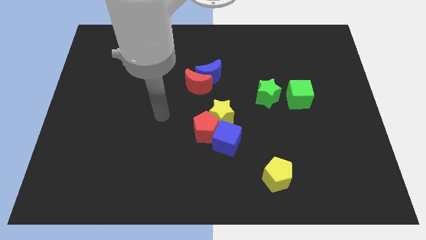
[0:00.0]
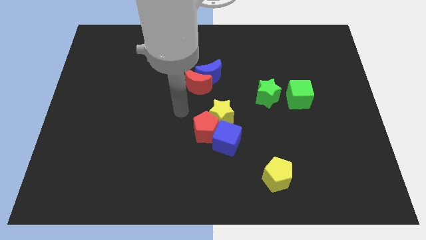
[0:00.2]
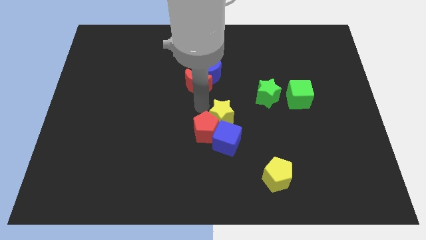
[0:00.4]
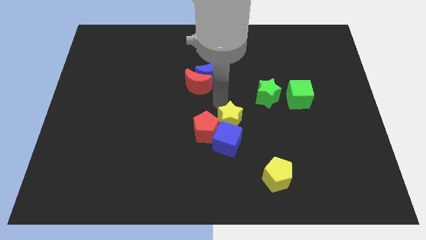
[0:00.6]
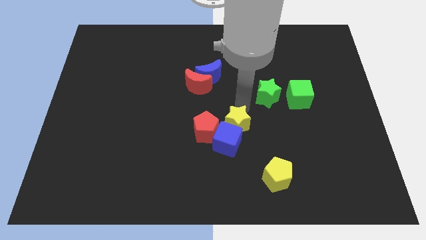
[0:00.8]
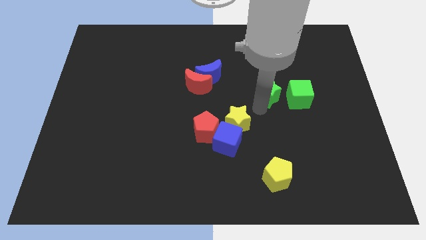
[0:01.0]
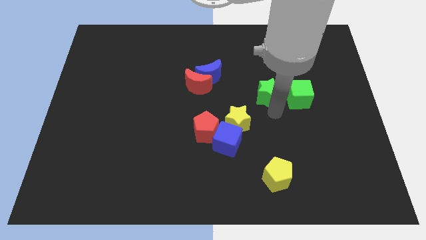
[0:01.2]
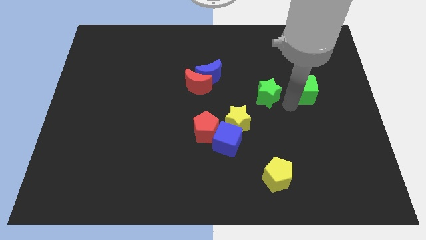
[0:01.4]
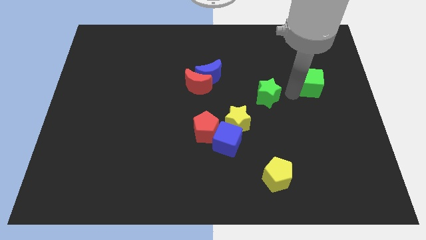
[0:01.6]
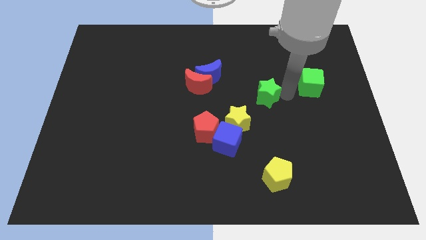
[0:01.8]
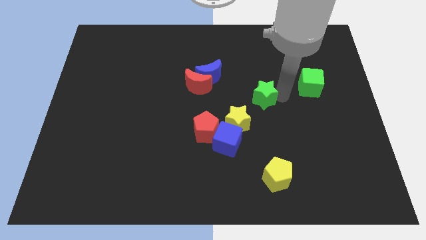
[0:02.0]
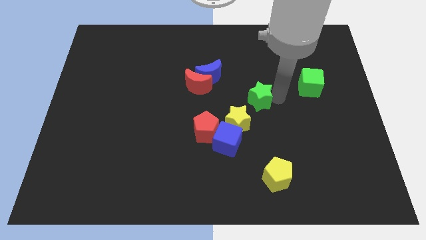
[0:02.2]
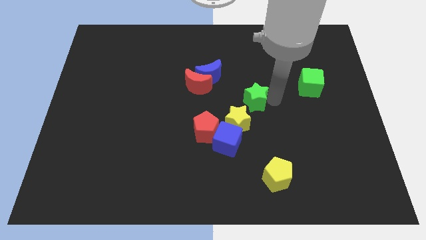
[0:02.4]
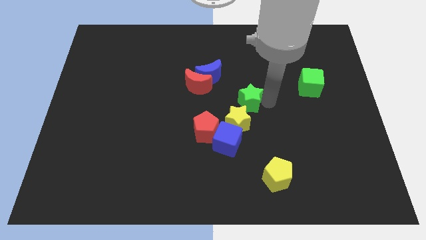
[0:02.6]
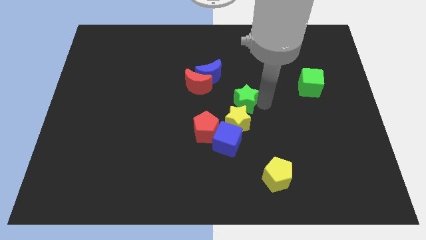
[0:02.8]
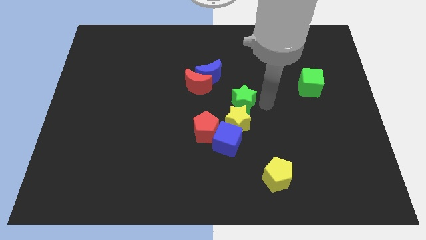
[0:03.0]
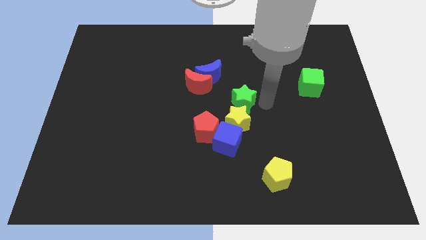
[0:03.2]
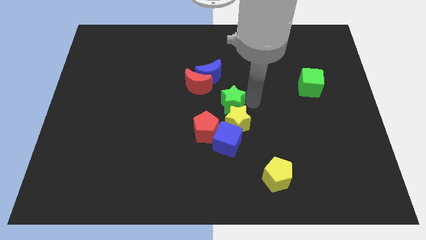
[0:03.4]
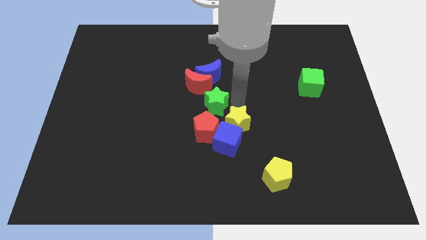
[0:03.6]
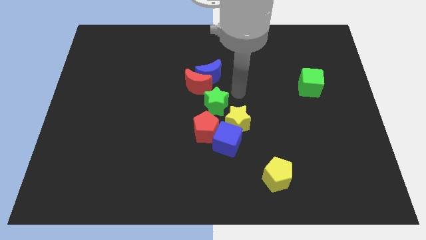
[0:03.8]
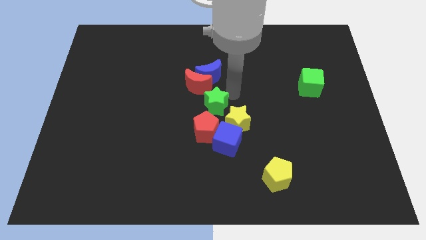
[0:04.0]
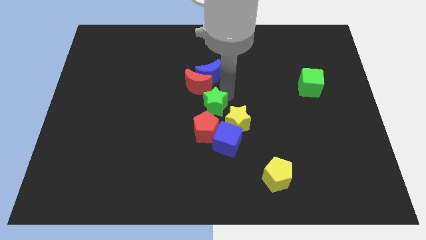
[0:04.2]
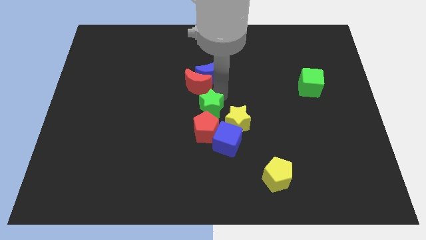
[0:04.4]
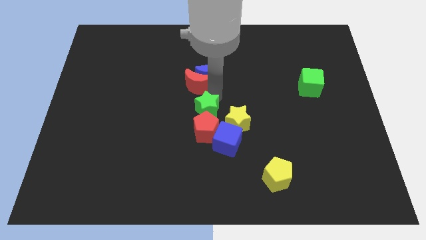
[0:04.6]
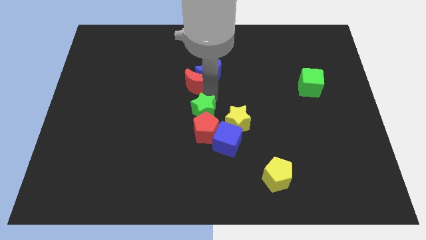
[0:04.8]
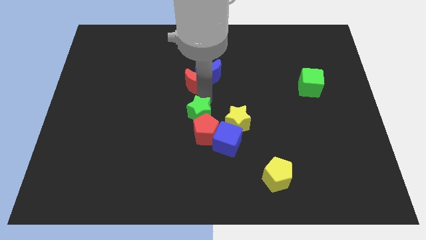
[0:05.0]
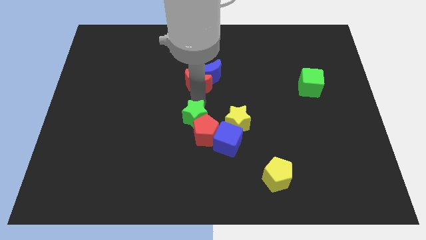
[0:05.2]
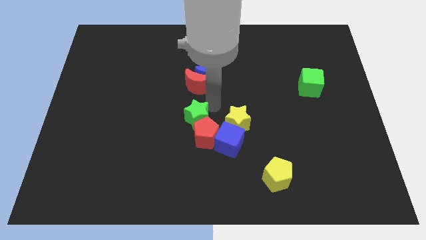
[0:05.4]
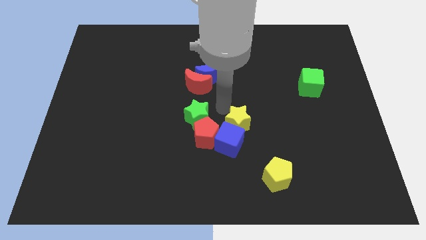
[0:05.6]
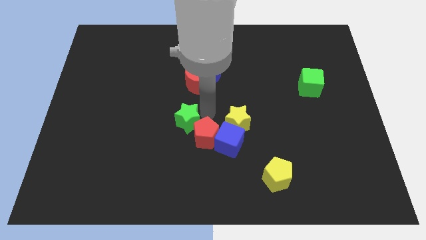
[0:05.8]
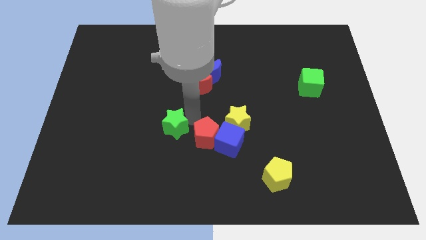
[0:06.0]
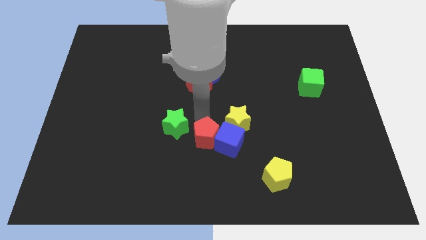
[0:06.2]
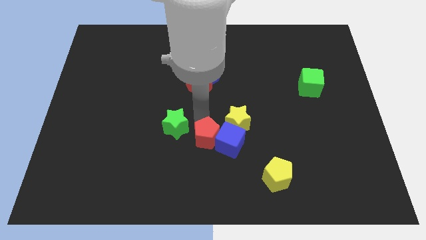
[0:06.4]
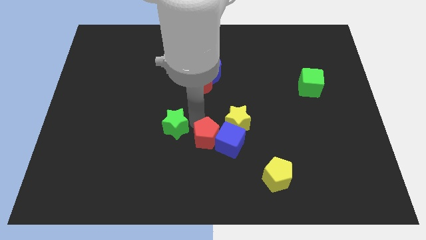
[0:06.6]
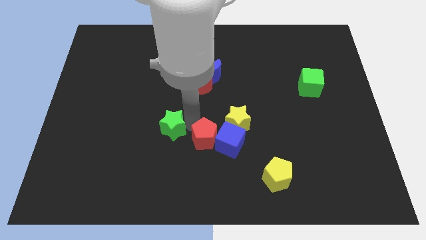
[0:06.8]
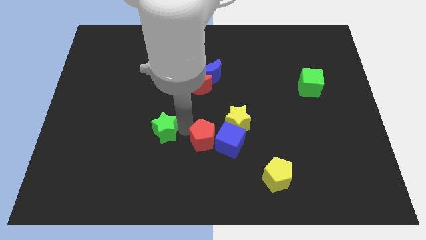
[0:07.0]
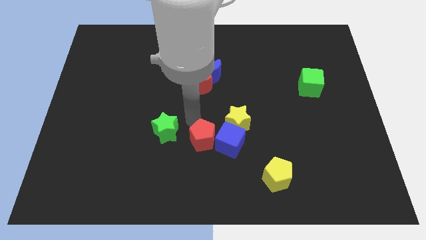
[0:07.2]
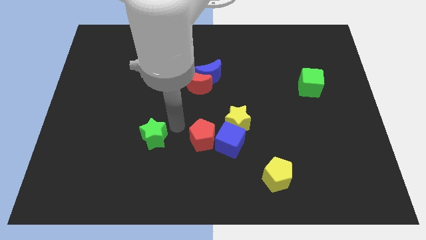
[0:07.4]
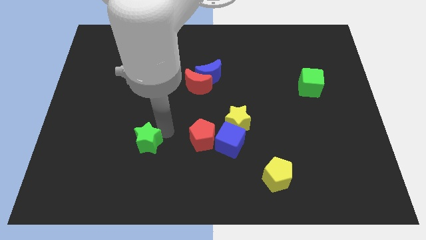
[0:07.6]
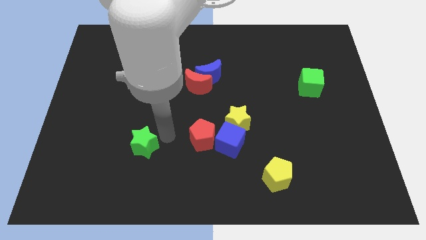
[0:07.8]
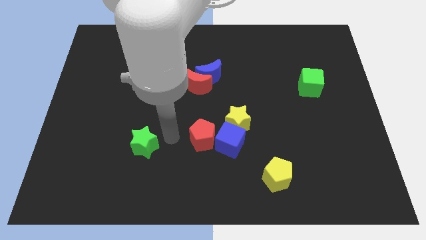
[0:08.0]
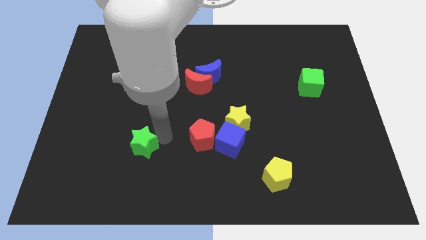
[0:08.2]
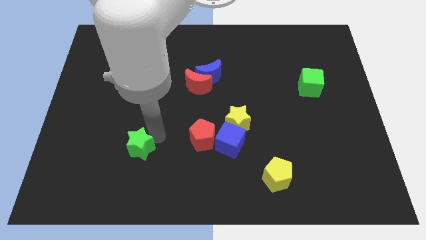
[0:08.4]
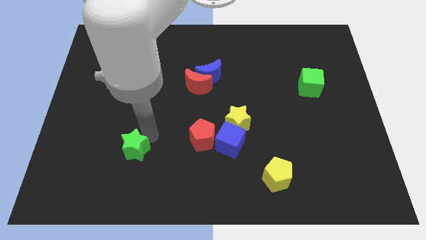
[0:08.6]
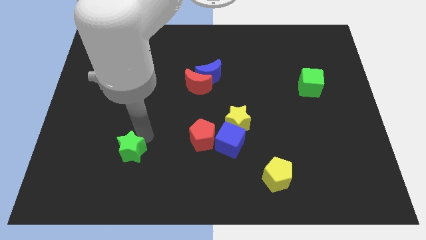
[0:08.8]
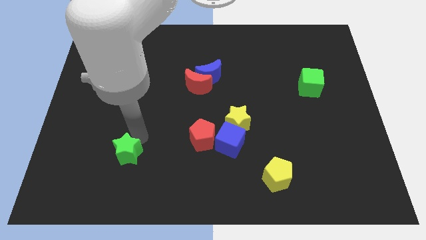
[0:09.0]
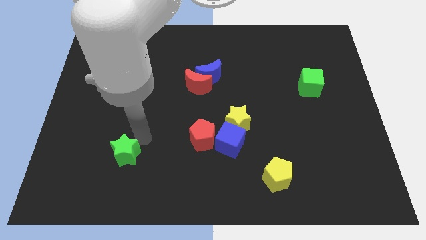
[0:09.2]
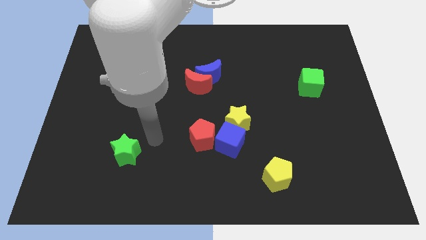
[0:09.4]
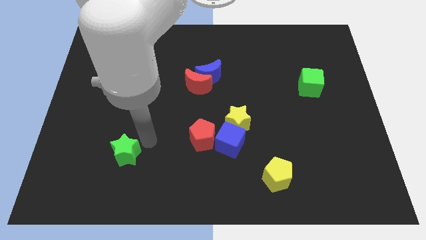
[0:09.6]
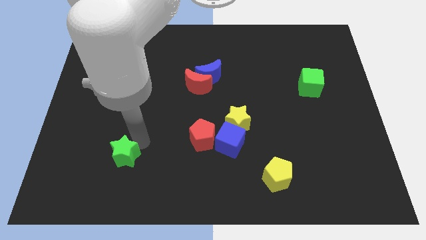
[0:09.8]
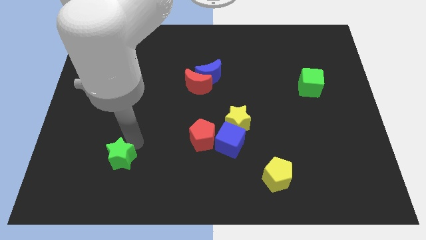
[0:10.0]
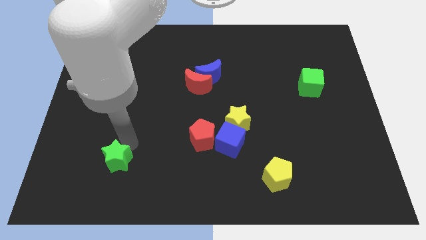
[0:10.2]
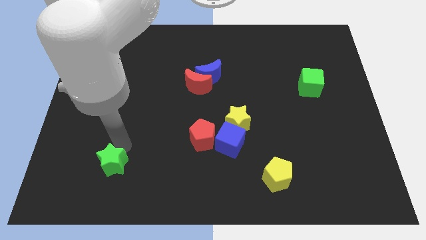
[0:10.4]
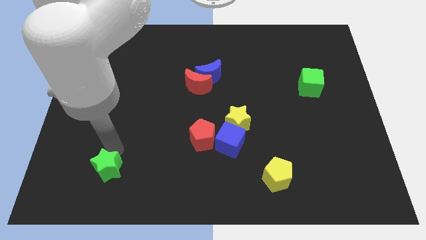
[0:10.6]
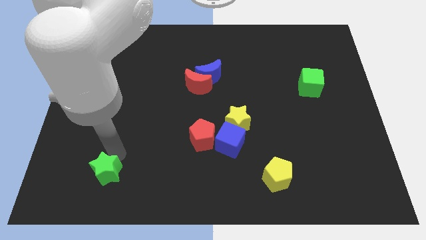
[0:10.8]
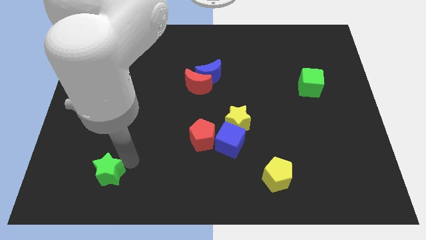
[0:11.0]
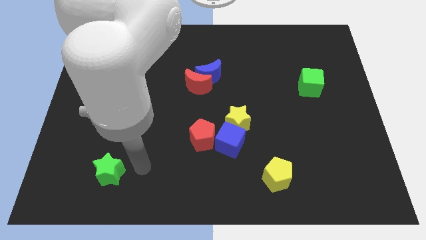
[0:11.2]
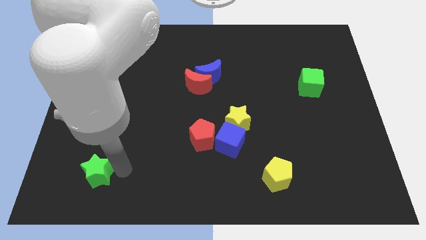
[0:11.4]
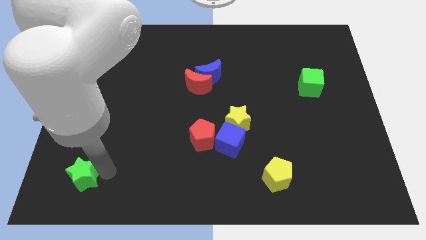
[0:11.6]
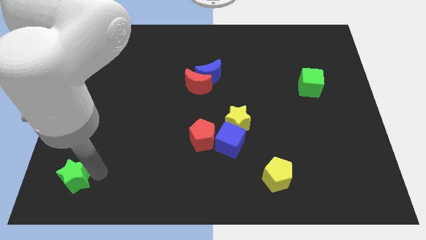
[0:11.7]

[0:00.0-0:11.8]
put the green star to the bottom left corner
